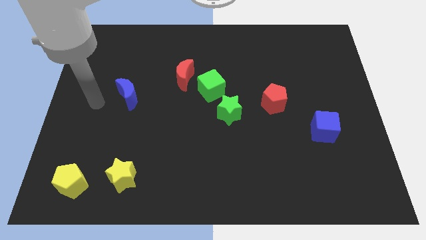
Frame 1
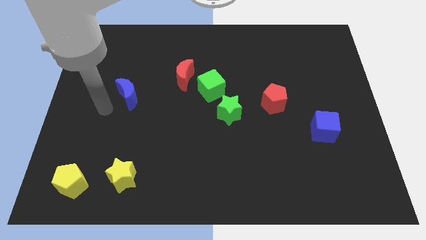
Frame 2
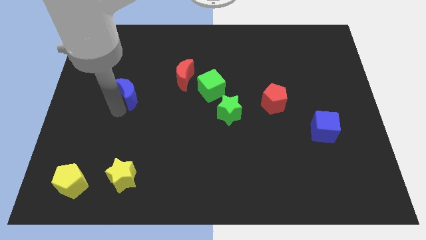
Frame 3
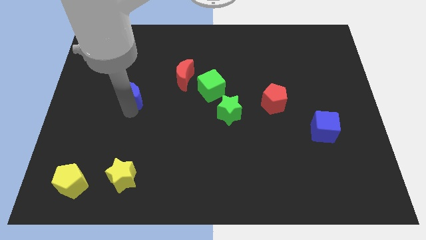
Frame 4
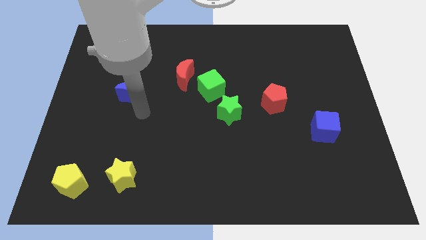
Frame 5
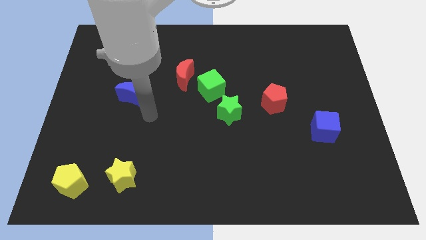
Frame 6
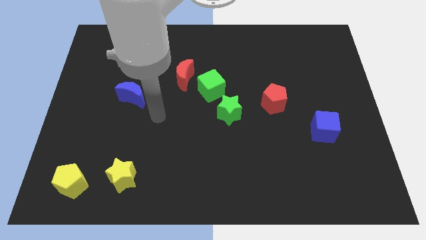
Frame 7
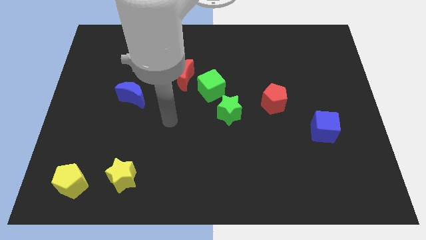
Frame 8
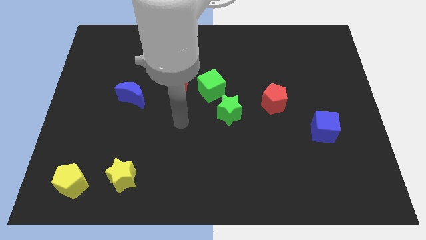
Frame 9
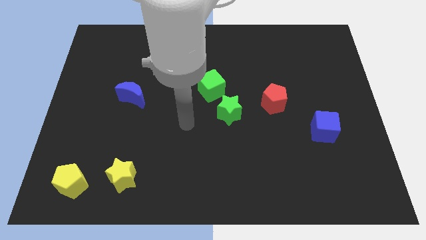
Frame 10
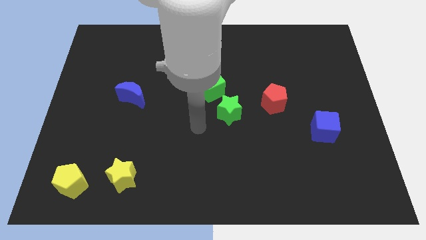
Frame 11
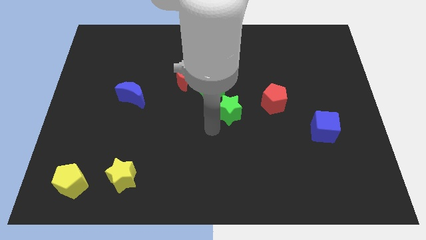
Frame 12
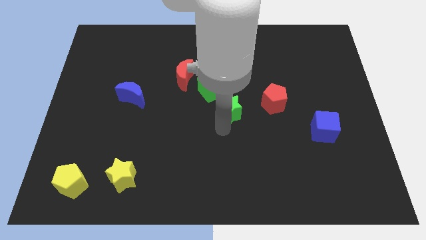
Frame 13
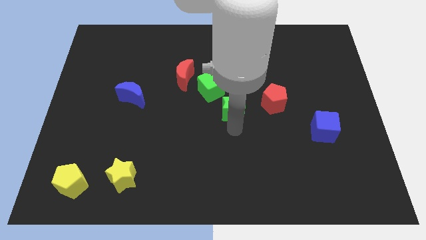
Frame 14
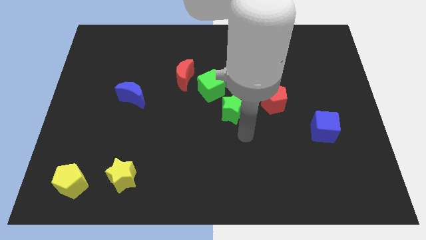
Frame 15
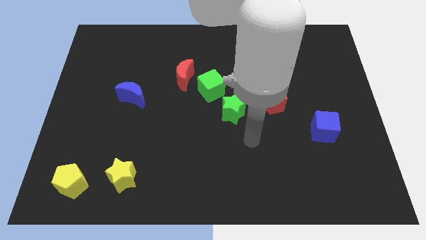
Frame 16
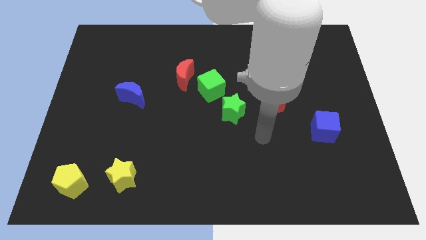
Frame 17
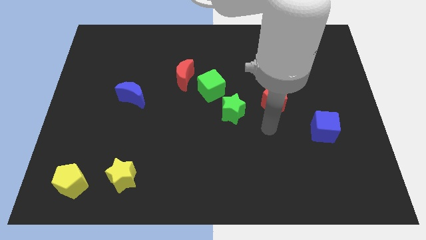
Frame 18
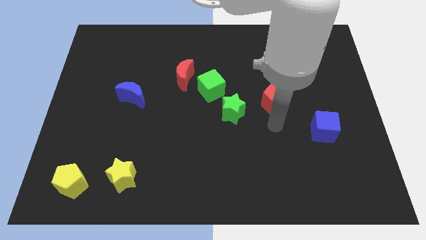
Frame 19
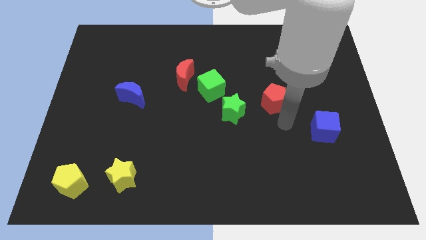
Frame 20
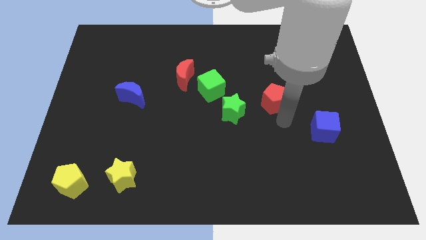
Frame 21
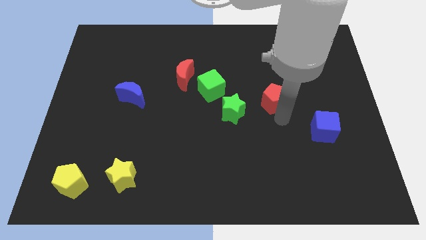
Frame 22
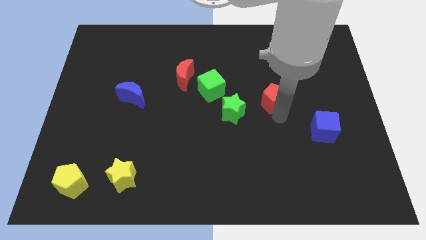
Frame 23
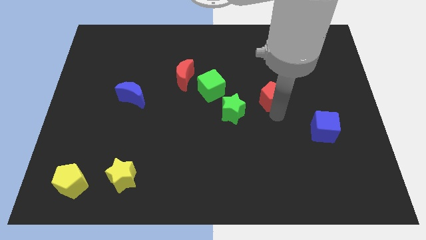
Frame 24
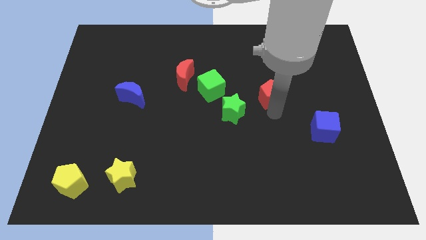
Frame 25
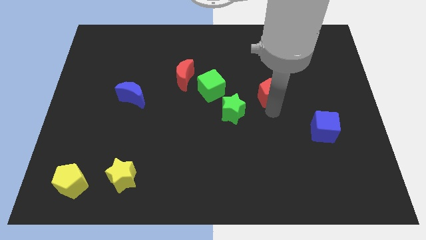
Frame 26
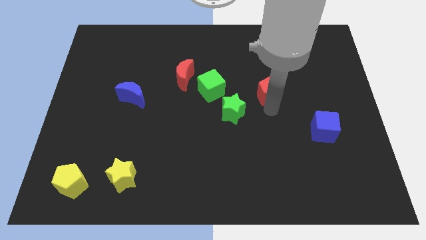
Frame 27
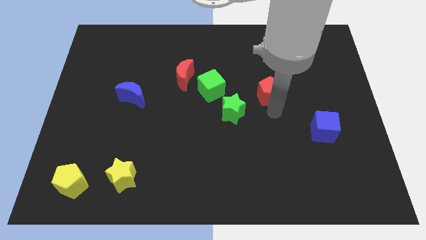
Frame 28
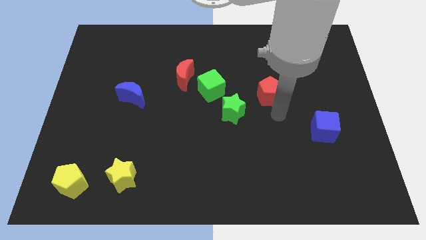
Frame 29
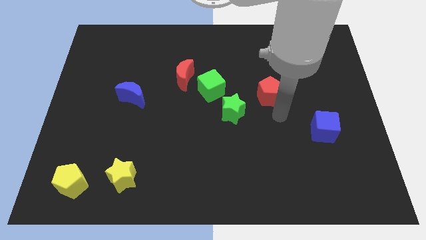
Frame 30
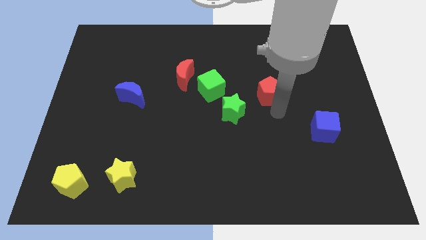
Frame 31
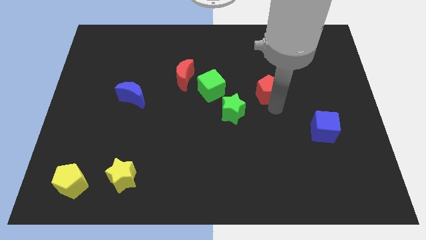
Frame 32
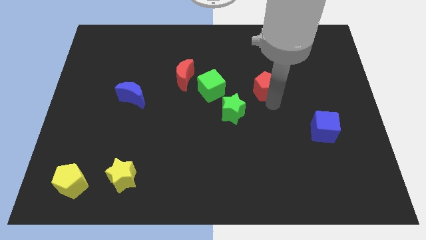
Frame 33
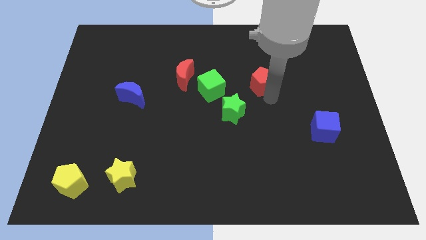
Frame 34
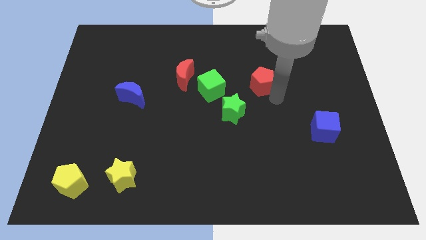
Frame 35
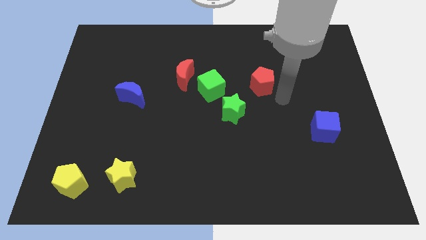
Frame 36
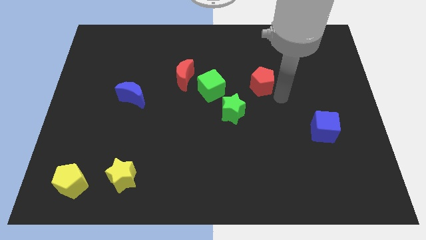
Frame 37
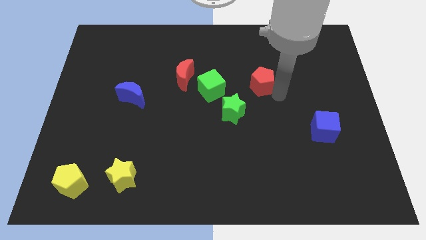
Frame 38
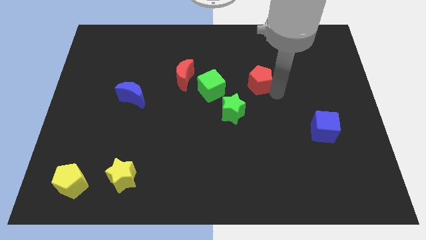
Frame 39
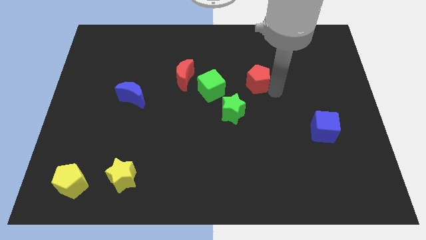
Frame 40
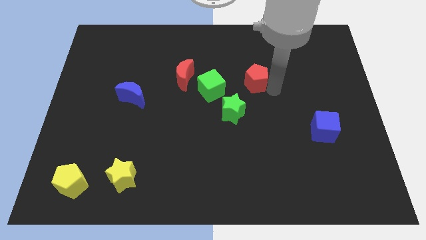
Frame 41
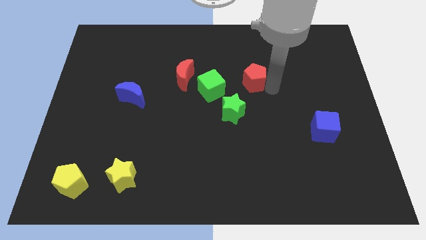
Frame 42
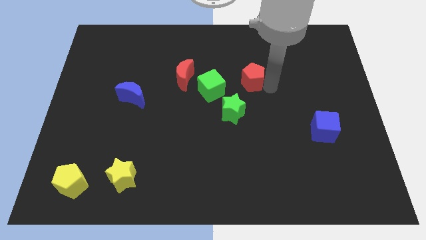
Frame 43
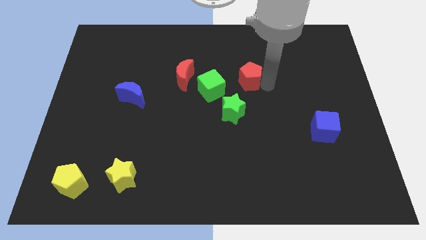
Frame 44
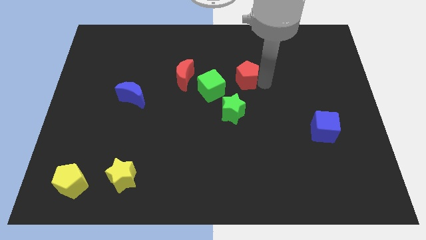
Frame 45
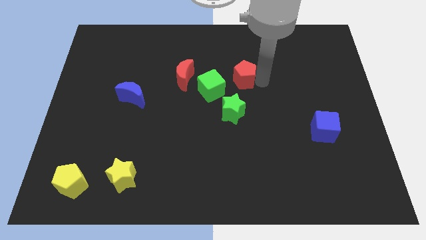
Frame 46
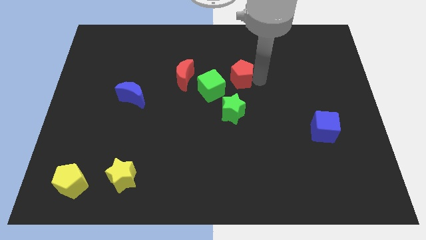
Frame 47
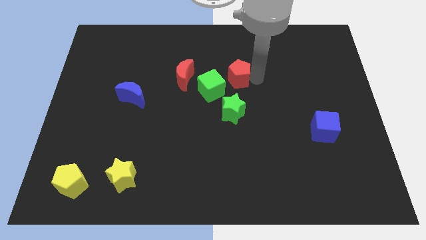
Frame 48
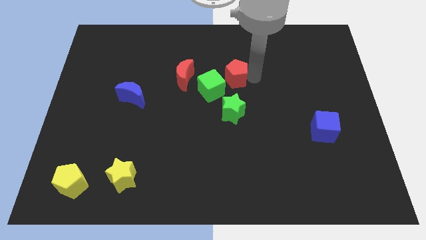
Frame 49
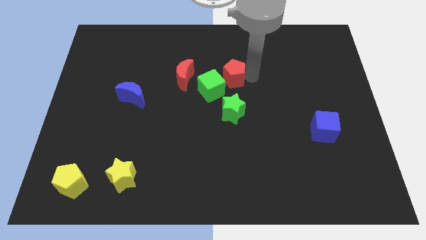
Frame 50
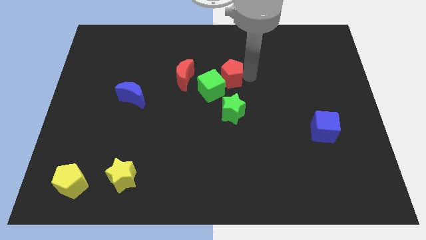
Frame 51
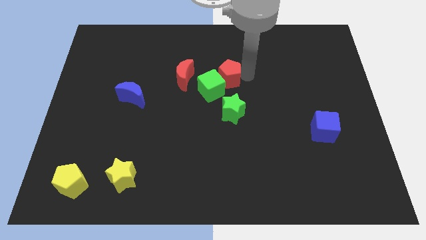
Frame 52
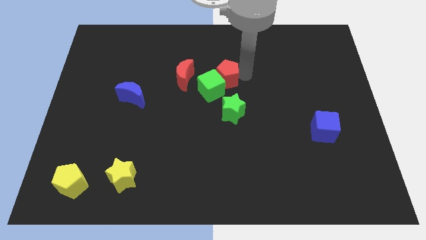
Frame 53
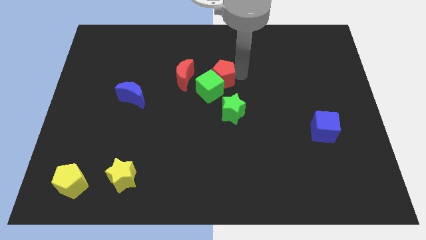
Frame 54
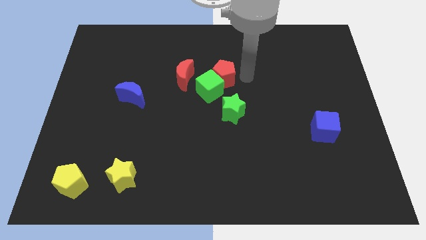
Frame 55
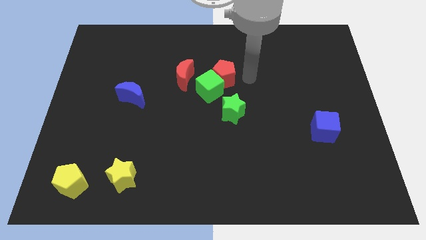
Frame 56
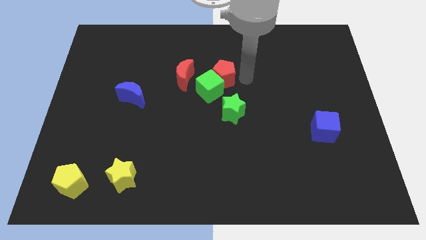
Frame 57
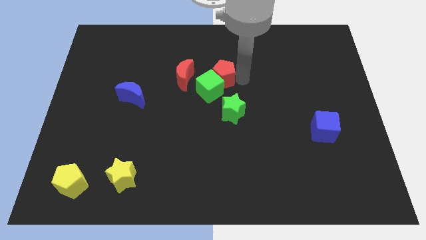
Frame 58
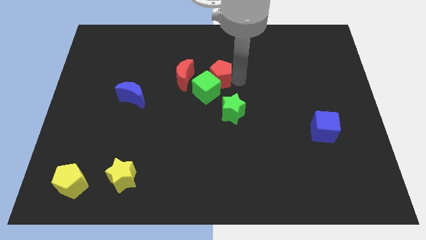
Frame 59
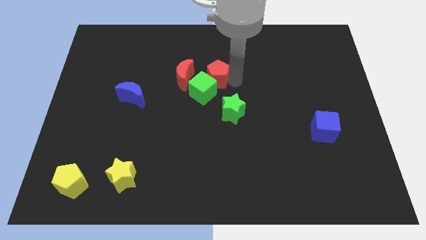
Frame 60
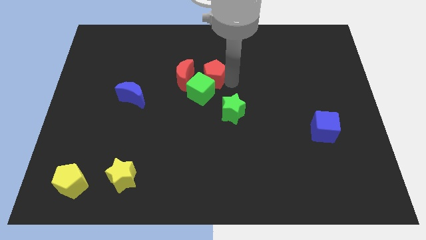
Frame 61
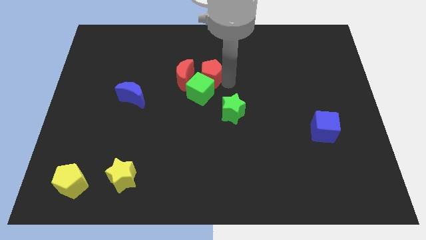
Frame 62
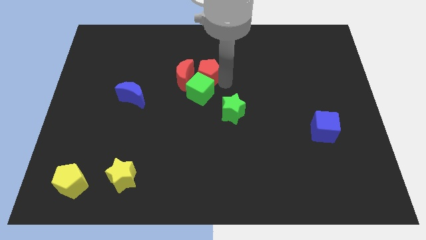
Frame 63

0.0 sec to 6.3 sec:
slide the red pentagon next to the red moon

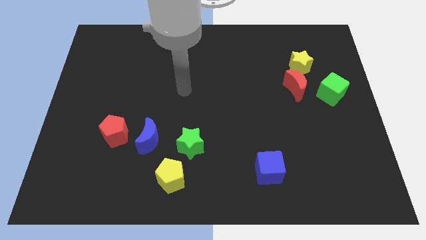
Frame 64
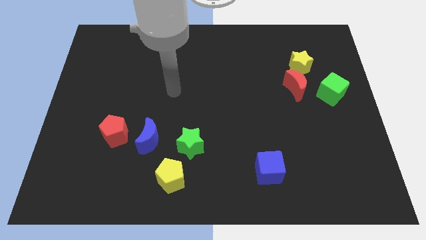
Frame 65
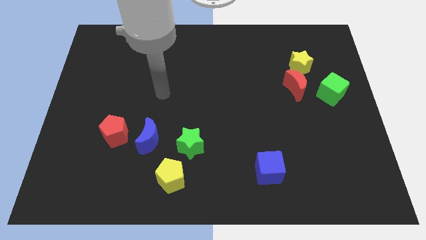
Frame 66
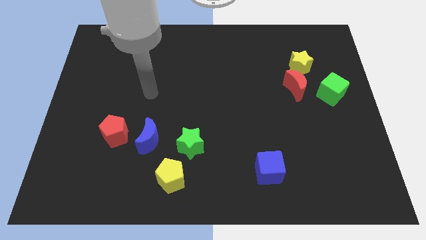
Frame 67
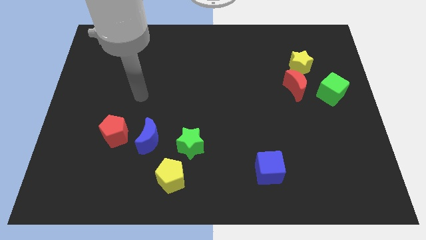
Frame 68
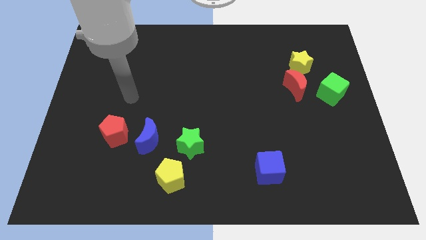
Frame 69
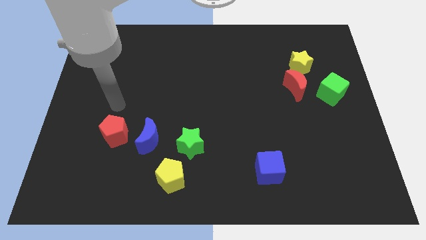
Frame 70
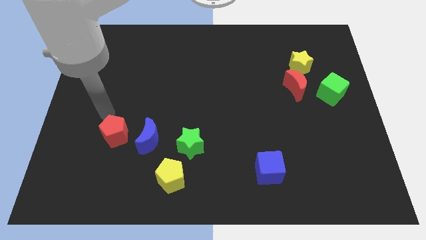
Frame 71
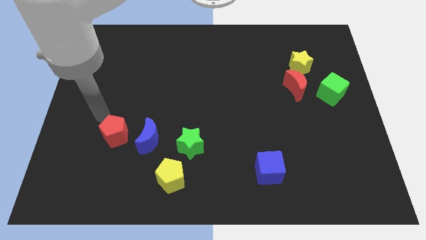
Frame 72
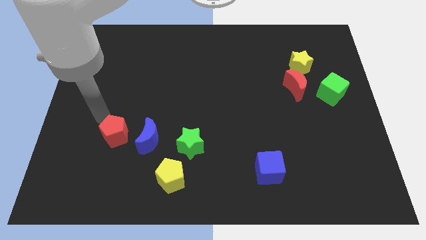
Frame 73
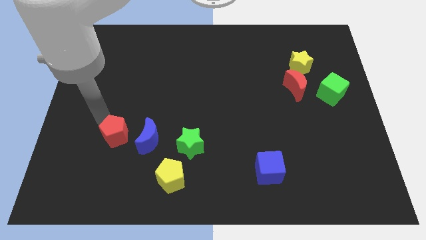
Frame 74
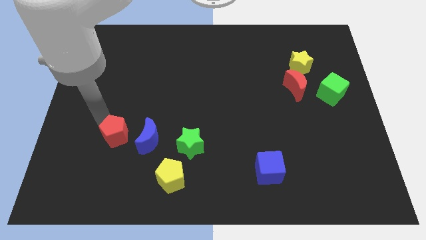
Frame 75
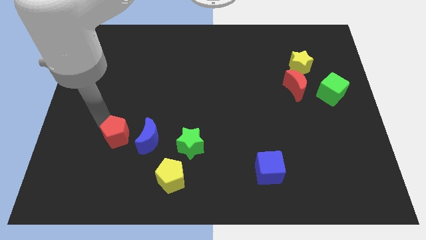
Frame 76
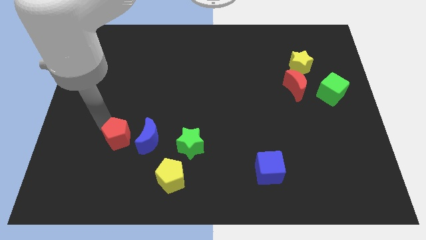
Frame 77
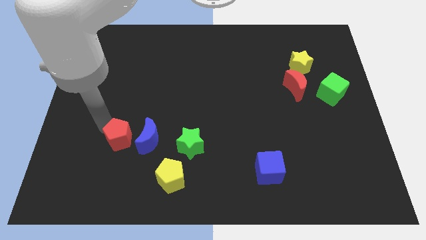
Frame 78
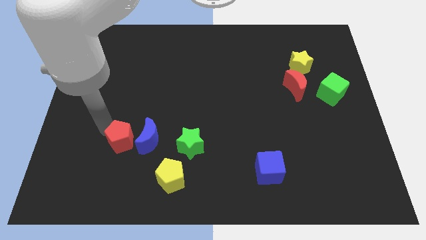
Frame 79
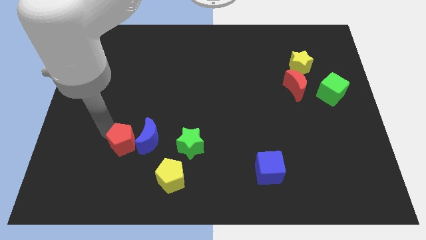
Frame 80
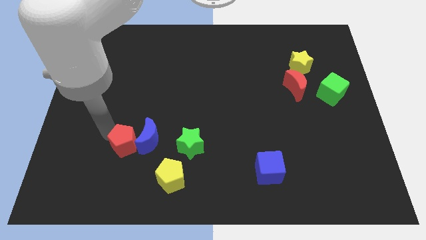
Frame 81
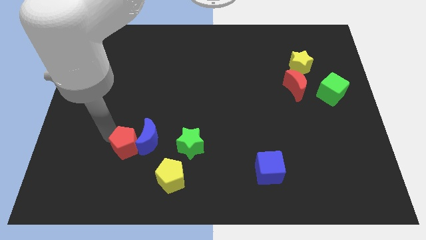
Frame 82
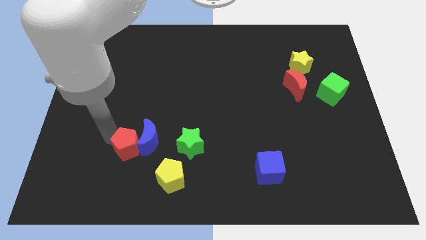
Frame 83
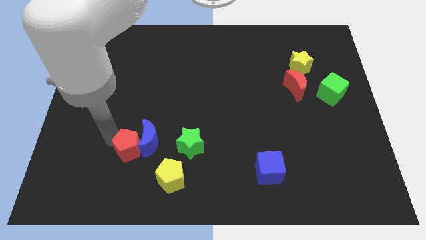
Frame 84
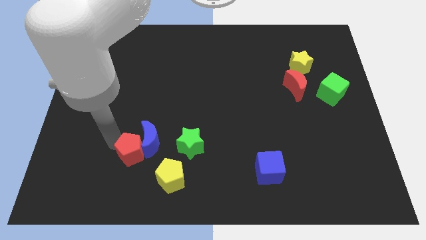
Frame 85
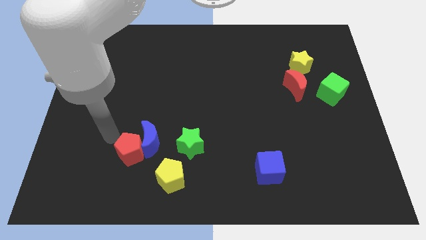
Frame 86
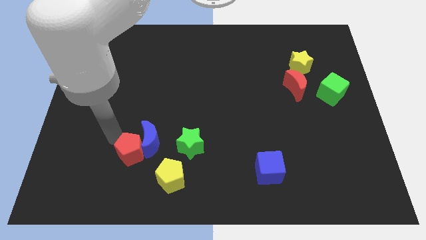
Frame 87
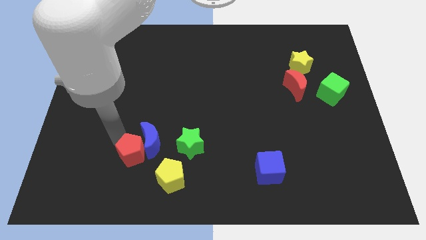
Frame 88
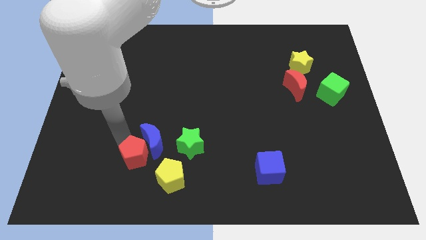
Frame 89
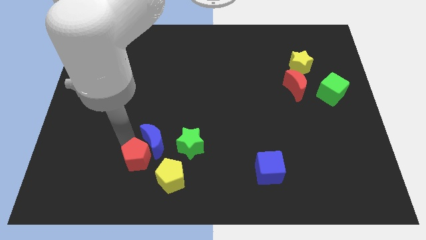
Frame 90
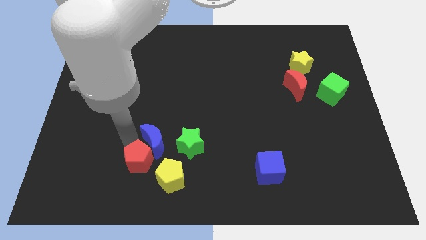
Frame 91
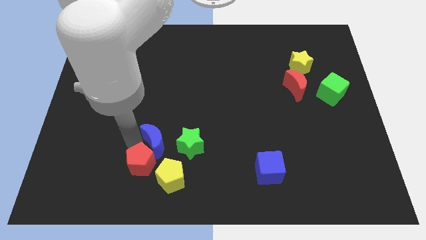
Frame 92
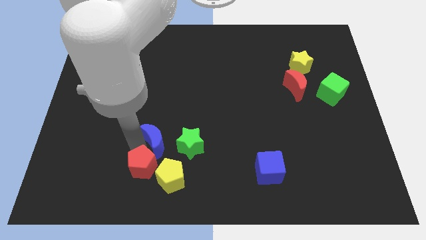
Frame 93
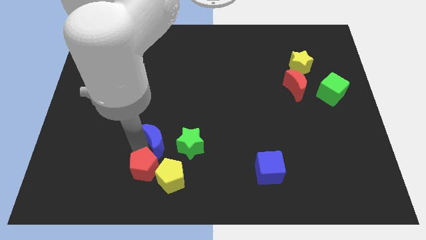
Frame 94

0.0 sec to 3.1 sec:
slide the red pentagon close to the yellow pentagon
